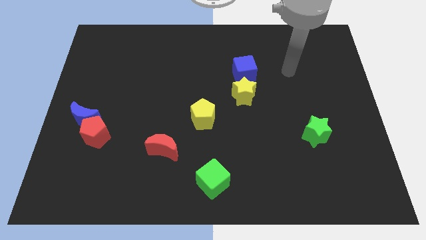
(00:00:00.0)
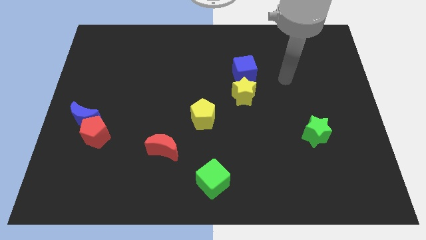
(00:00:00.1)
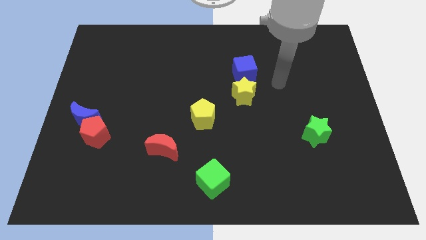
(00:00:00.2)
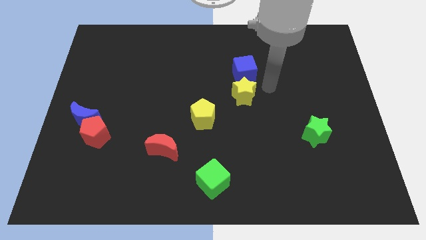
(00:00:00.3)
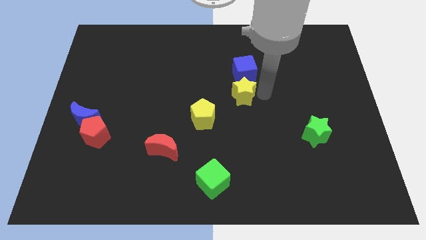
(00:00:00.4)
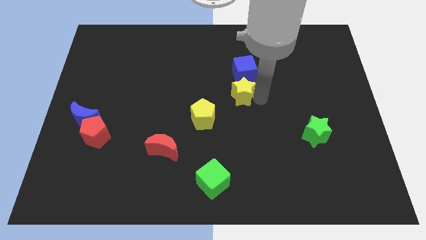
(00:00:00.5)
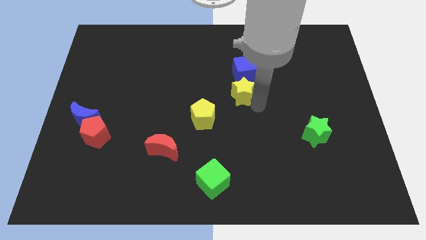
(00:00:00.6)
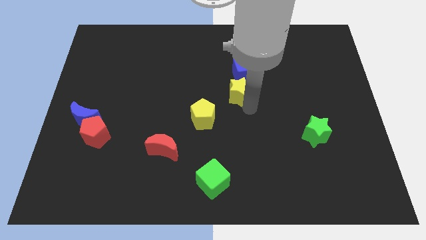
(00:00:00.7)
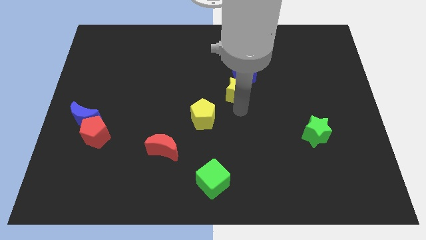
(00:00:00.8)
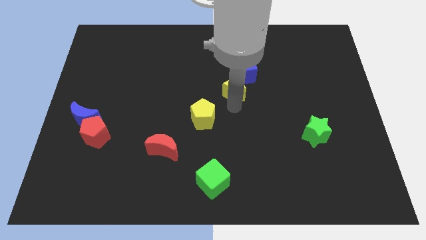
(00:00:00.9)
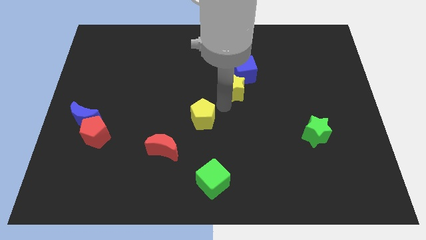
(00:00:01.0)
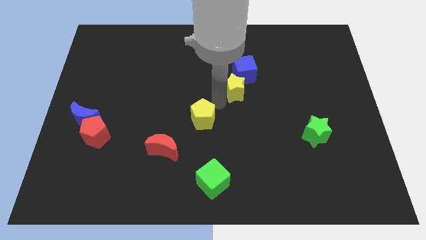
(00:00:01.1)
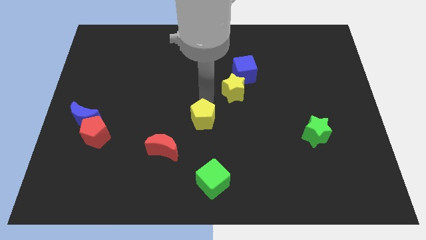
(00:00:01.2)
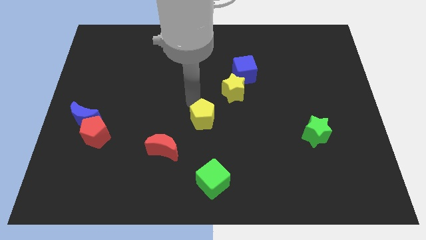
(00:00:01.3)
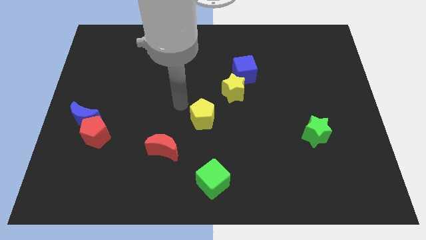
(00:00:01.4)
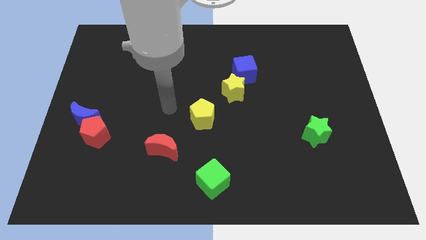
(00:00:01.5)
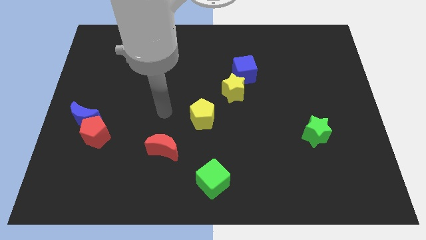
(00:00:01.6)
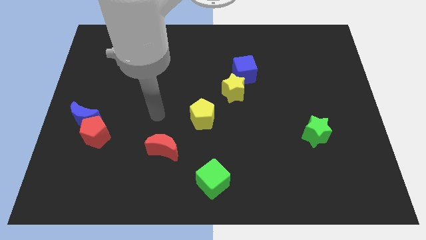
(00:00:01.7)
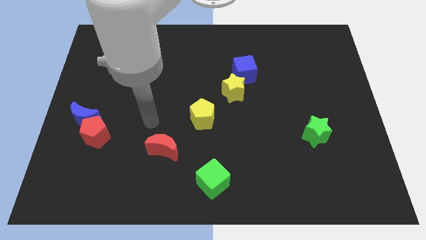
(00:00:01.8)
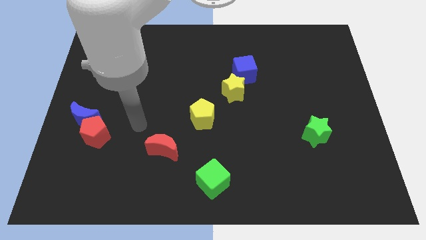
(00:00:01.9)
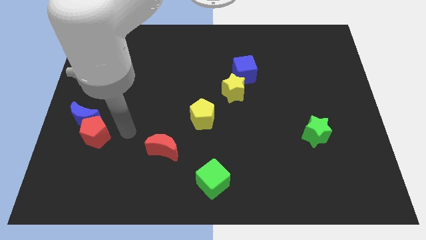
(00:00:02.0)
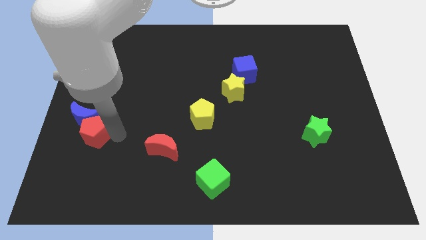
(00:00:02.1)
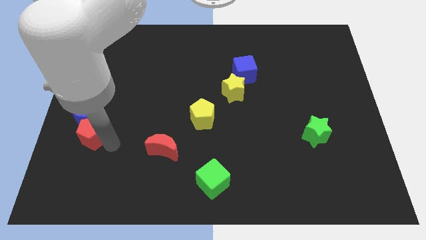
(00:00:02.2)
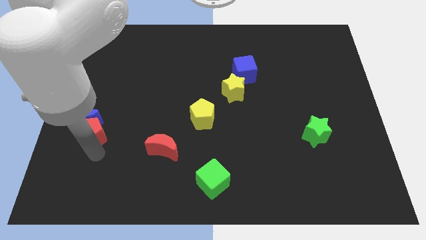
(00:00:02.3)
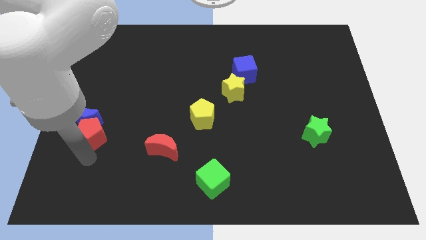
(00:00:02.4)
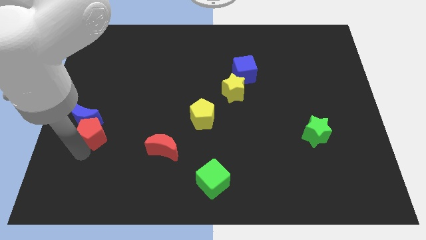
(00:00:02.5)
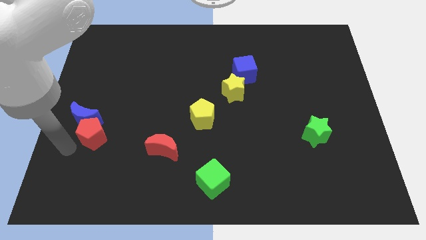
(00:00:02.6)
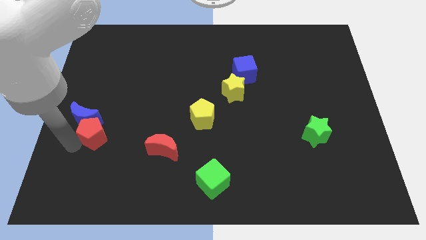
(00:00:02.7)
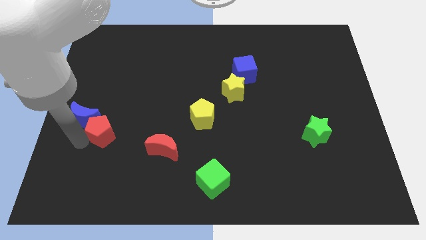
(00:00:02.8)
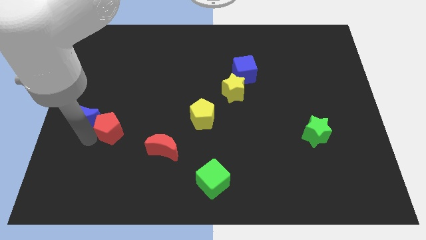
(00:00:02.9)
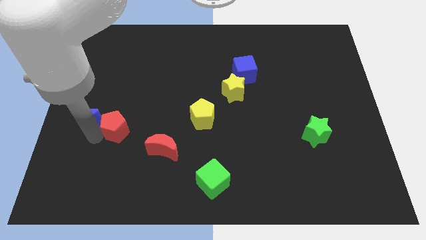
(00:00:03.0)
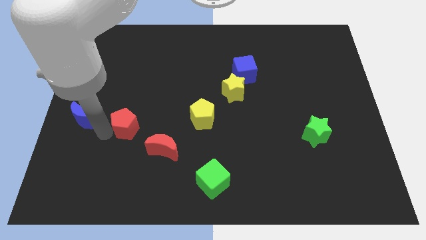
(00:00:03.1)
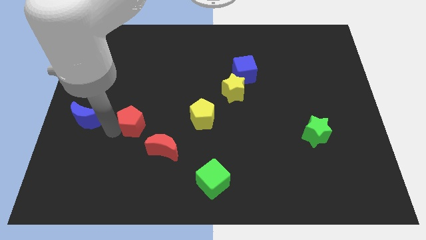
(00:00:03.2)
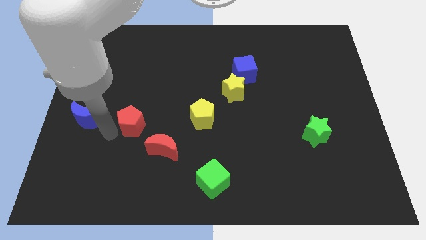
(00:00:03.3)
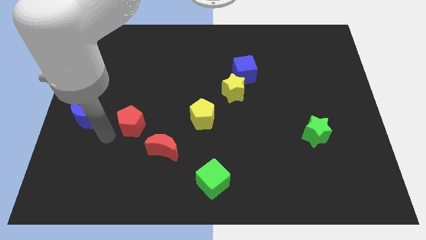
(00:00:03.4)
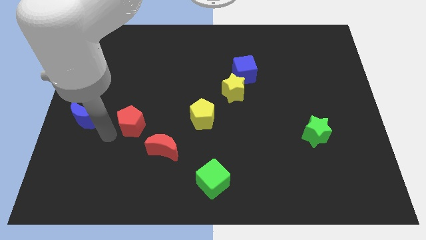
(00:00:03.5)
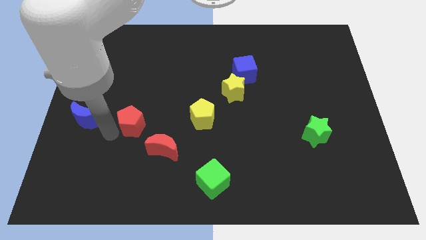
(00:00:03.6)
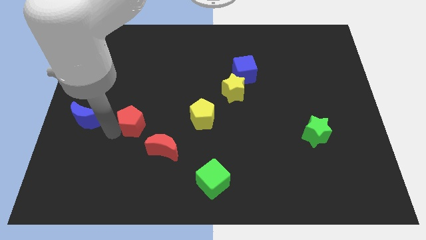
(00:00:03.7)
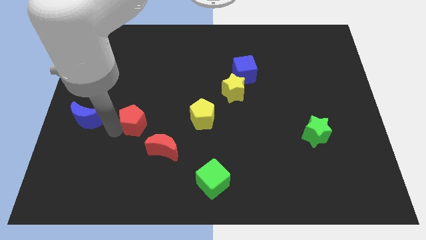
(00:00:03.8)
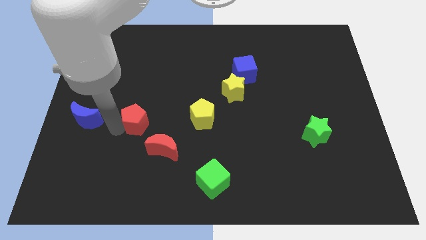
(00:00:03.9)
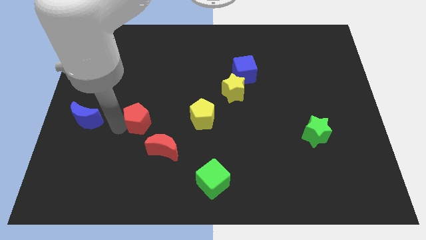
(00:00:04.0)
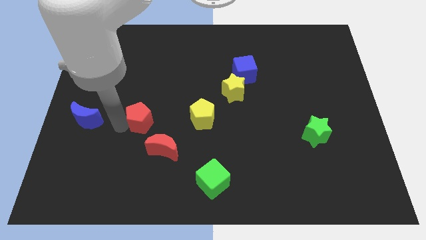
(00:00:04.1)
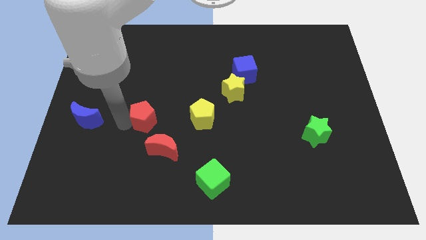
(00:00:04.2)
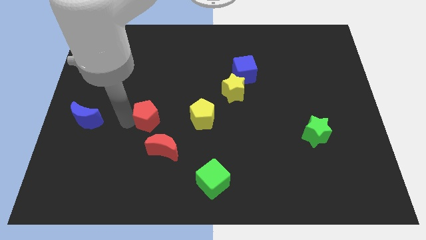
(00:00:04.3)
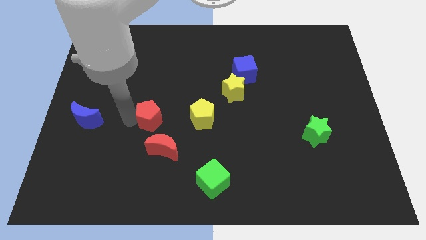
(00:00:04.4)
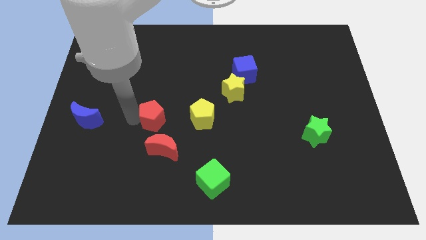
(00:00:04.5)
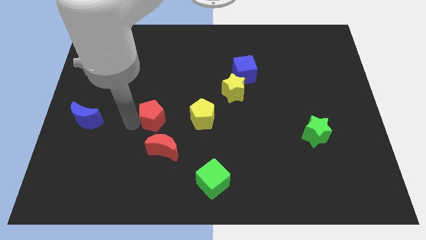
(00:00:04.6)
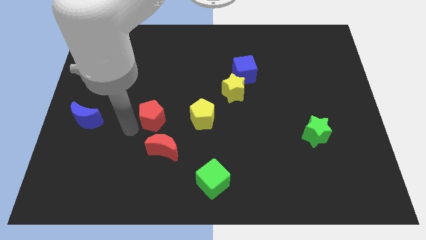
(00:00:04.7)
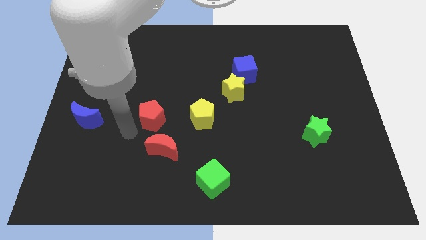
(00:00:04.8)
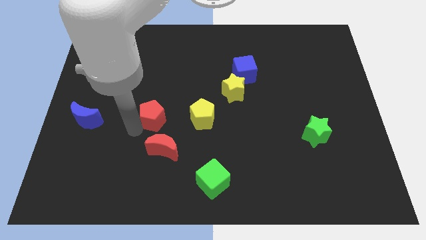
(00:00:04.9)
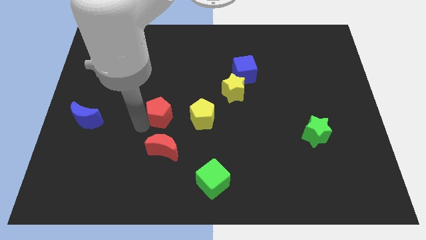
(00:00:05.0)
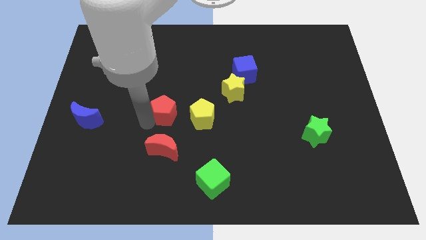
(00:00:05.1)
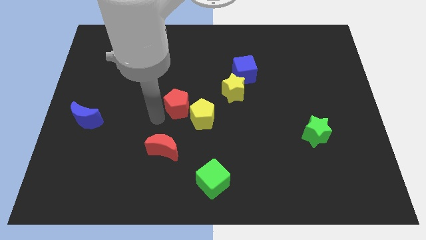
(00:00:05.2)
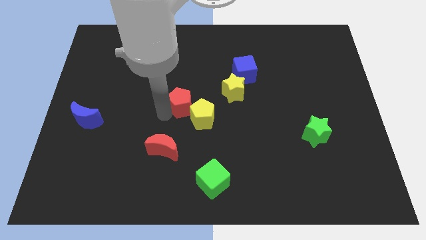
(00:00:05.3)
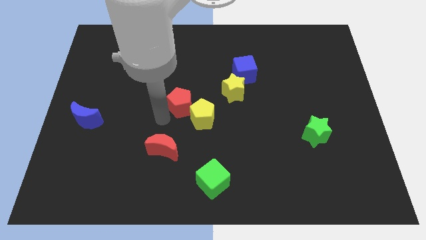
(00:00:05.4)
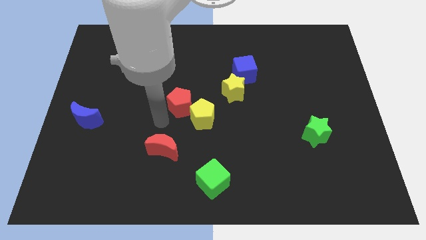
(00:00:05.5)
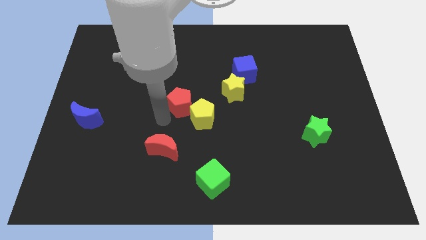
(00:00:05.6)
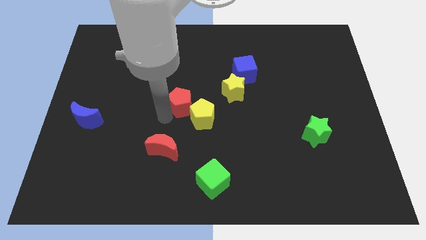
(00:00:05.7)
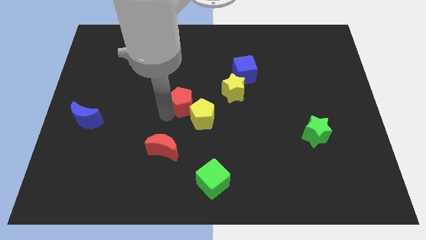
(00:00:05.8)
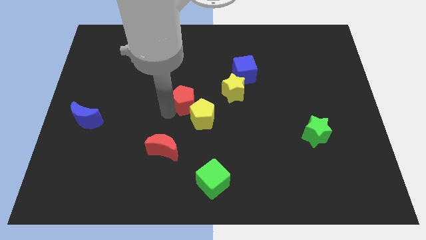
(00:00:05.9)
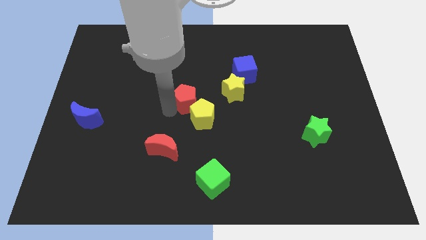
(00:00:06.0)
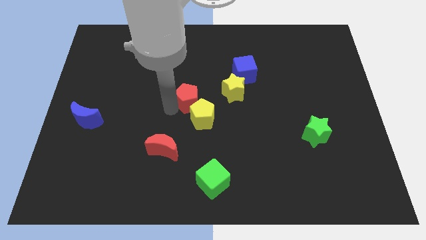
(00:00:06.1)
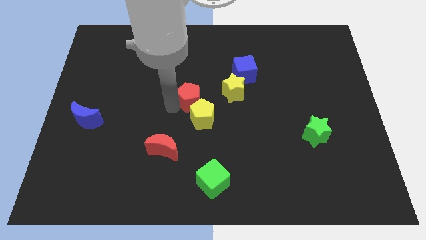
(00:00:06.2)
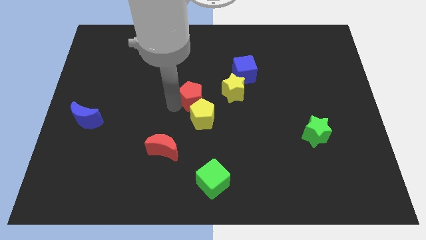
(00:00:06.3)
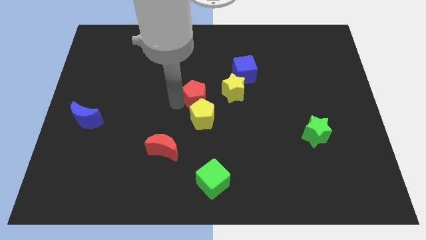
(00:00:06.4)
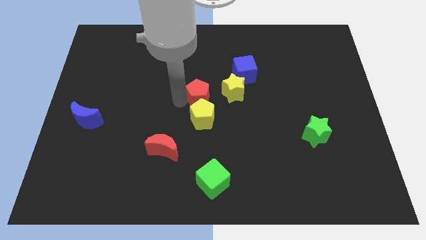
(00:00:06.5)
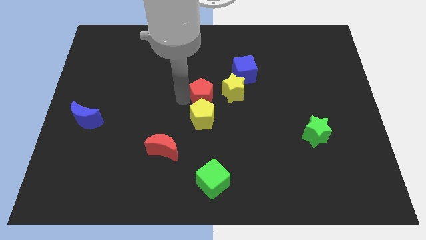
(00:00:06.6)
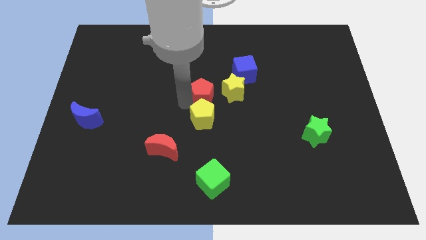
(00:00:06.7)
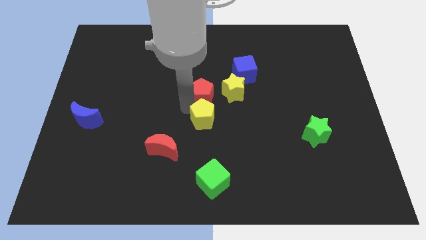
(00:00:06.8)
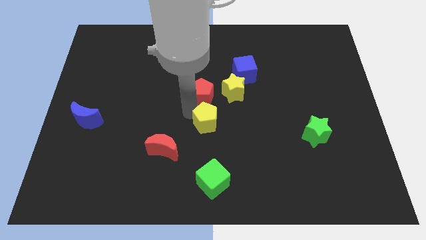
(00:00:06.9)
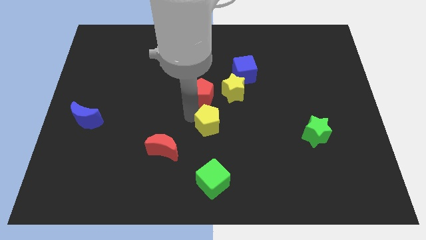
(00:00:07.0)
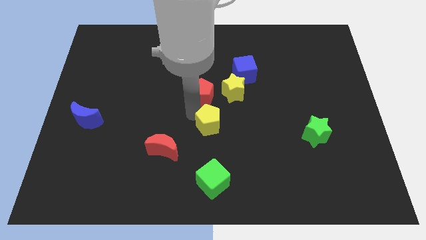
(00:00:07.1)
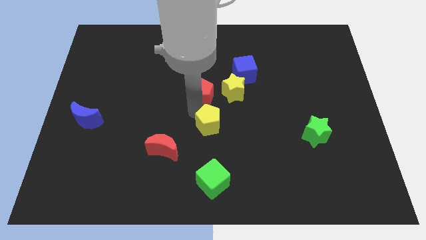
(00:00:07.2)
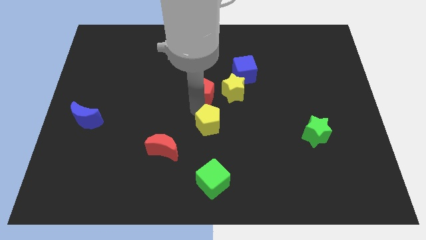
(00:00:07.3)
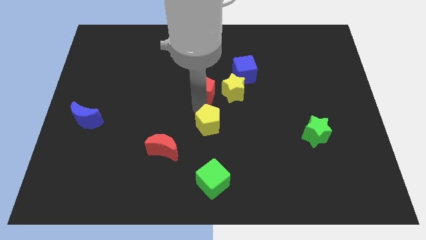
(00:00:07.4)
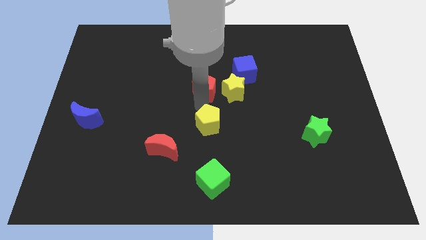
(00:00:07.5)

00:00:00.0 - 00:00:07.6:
push the red pentagon to the top left of the yellow star

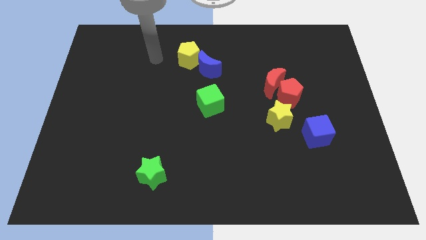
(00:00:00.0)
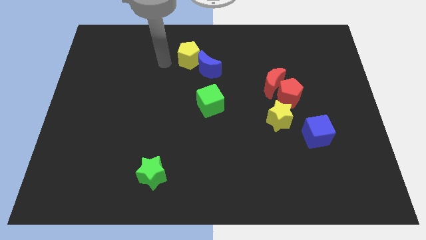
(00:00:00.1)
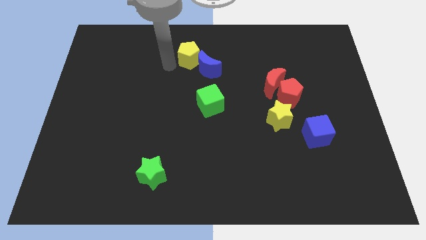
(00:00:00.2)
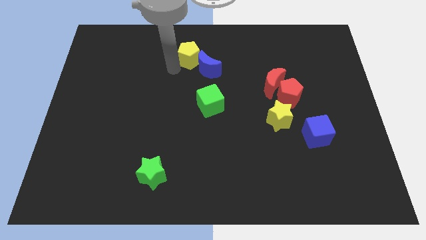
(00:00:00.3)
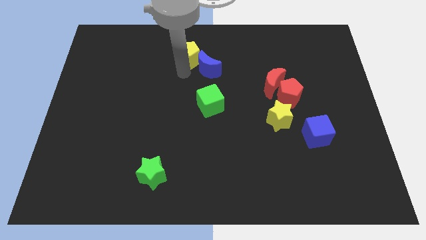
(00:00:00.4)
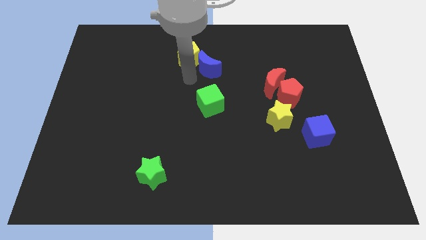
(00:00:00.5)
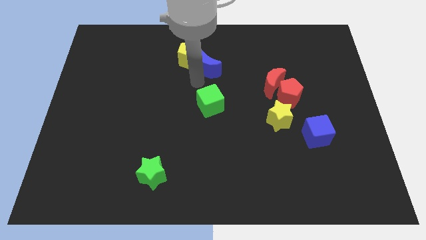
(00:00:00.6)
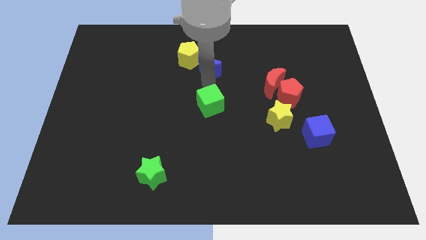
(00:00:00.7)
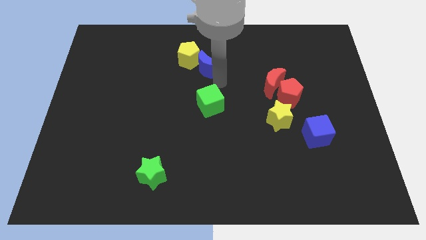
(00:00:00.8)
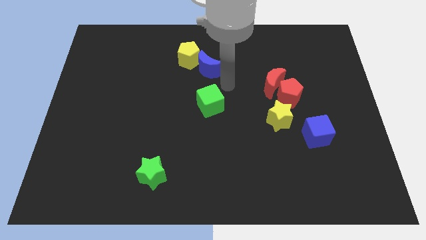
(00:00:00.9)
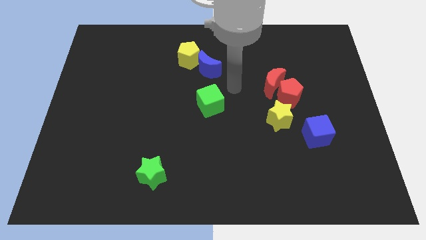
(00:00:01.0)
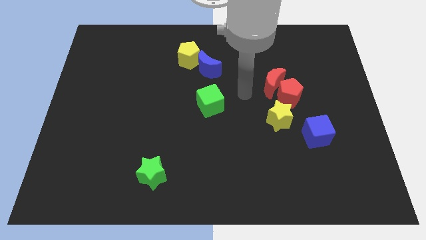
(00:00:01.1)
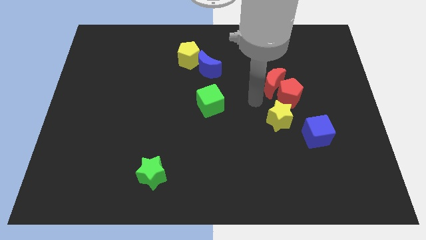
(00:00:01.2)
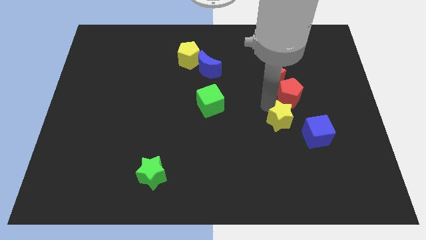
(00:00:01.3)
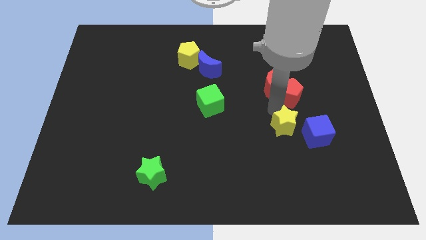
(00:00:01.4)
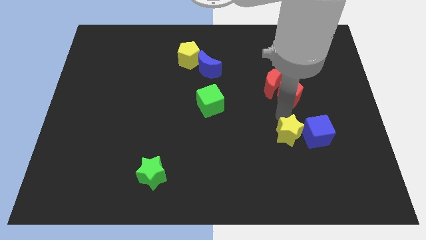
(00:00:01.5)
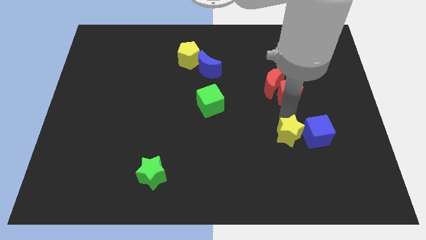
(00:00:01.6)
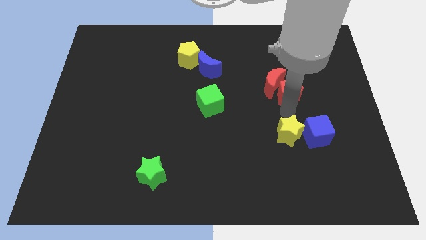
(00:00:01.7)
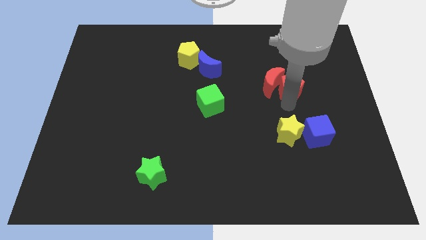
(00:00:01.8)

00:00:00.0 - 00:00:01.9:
move the red pentagon to the top right of the red moon
